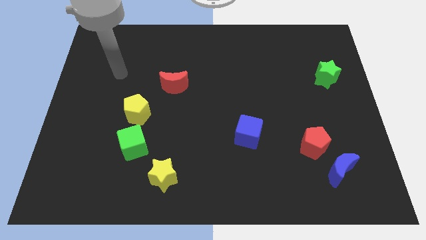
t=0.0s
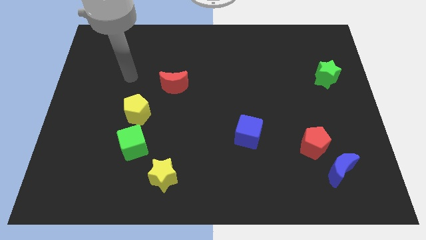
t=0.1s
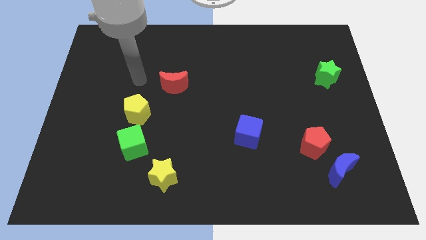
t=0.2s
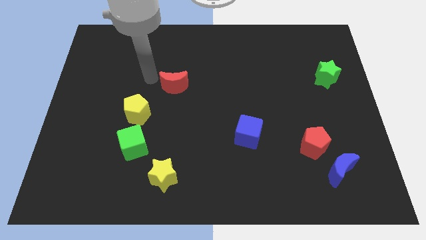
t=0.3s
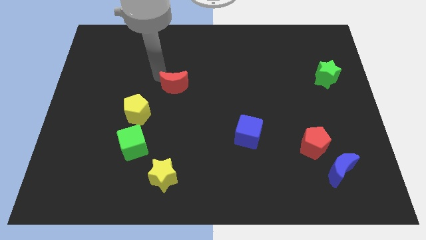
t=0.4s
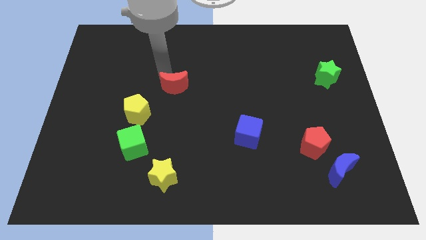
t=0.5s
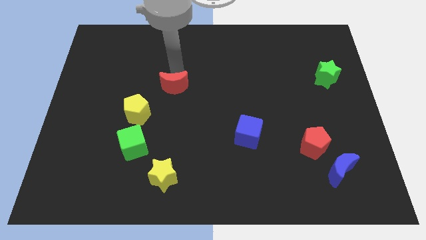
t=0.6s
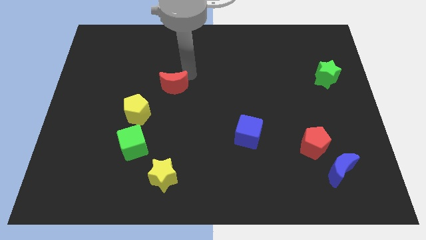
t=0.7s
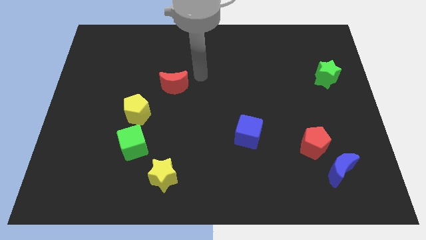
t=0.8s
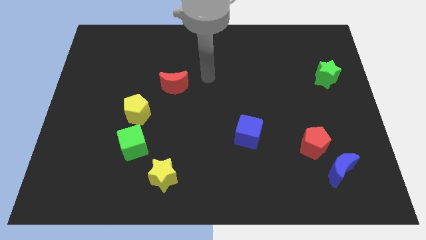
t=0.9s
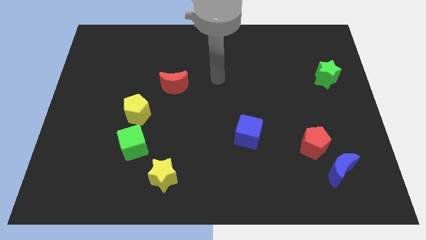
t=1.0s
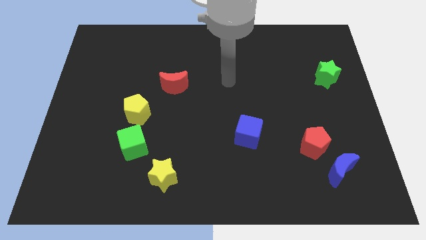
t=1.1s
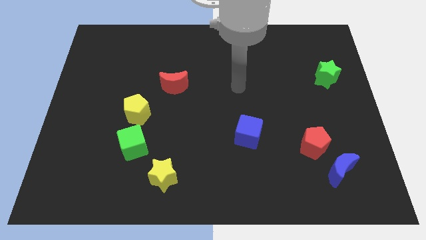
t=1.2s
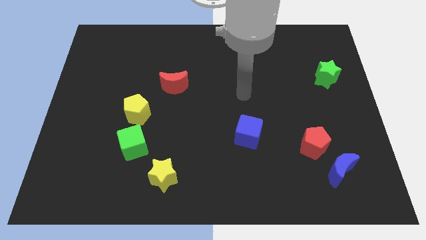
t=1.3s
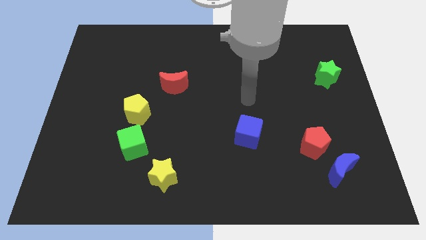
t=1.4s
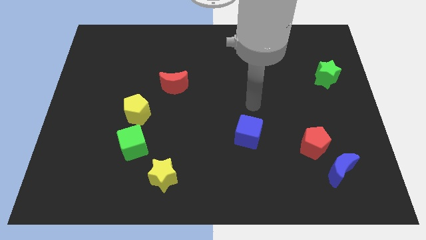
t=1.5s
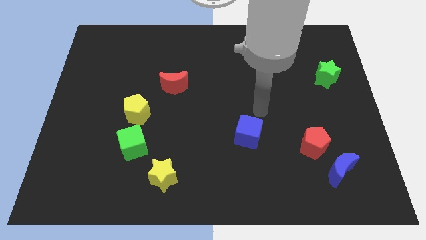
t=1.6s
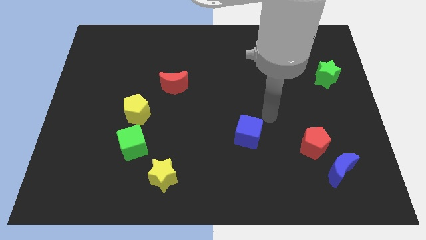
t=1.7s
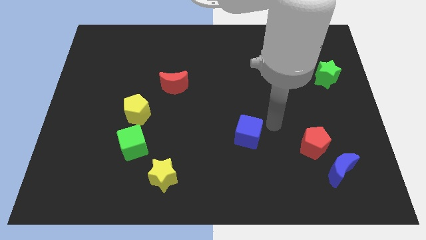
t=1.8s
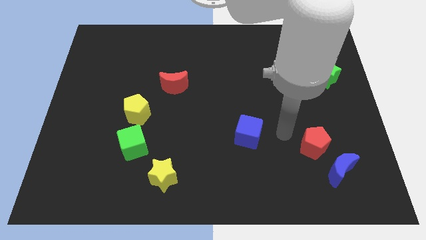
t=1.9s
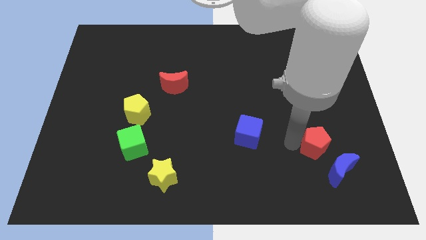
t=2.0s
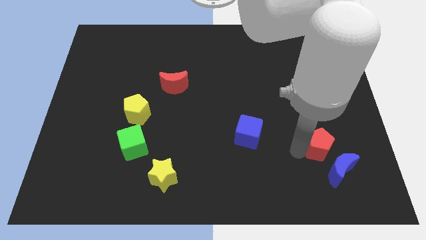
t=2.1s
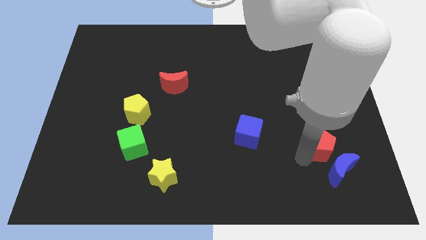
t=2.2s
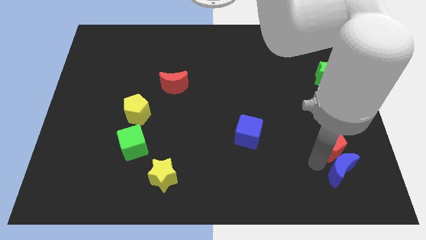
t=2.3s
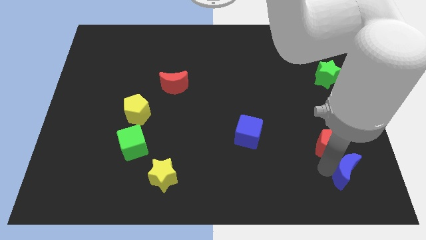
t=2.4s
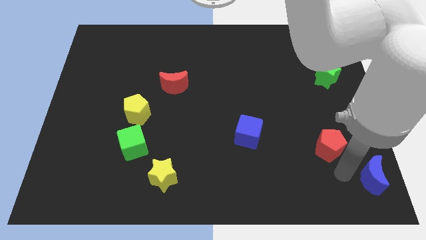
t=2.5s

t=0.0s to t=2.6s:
separate the red pentagon from the blue moon

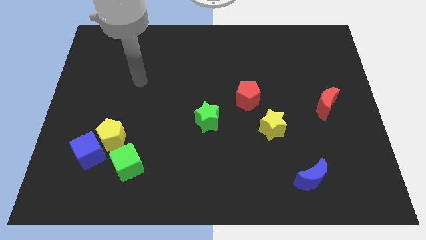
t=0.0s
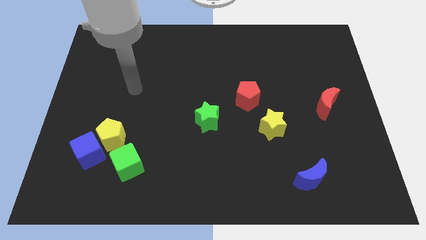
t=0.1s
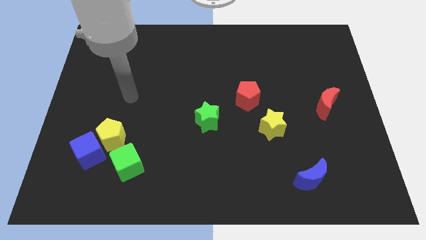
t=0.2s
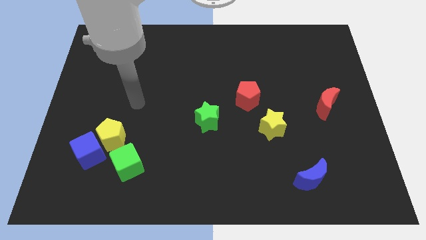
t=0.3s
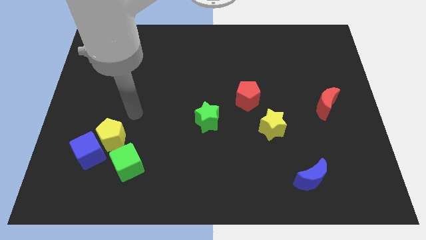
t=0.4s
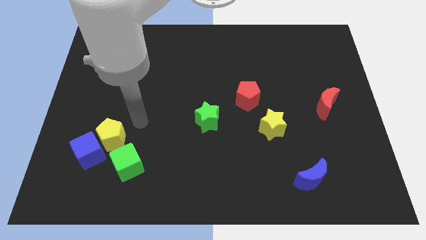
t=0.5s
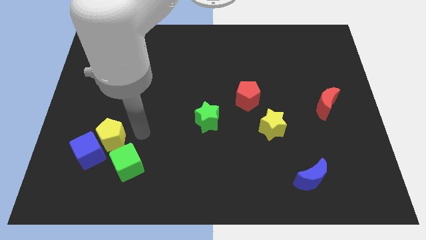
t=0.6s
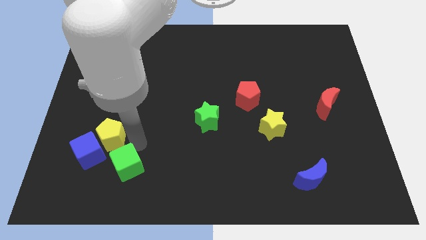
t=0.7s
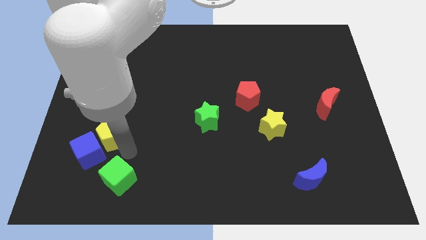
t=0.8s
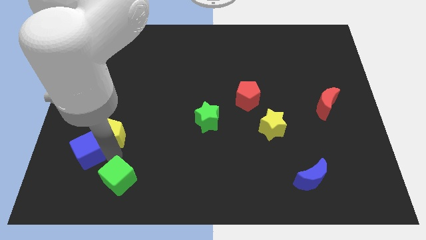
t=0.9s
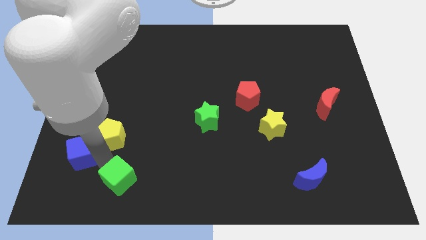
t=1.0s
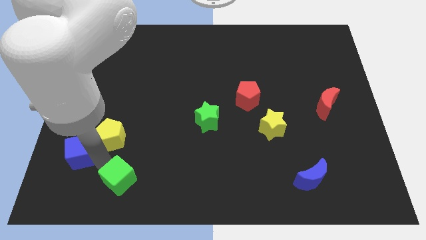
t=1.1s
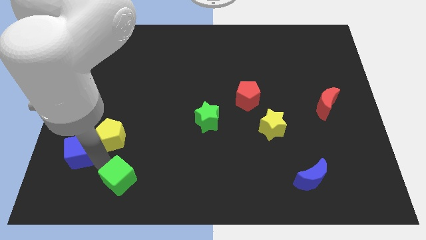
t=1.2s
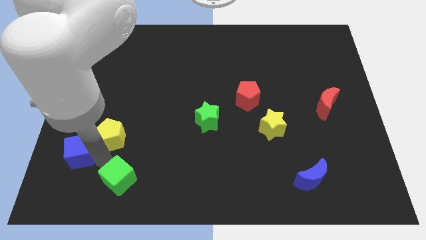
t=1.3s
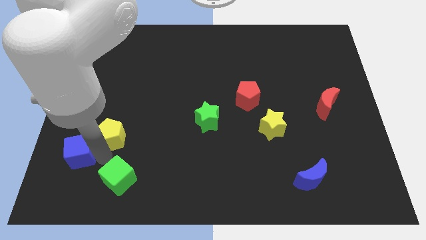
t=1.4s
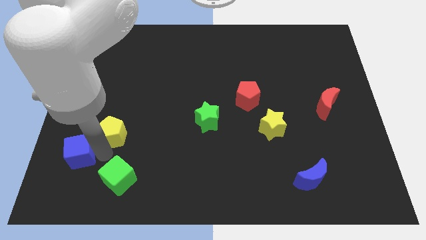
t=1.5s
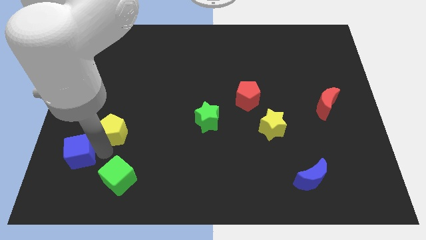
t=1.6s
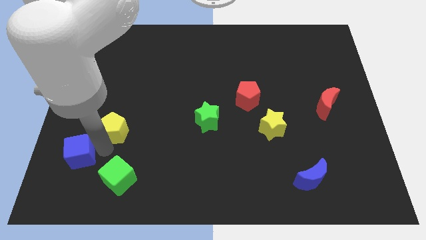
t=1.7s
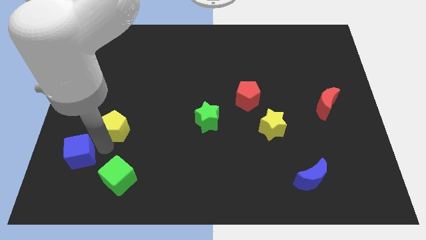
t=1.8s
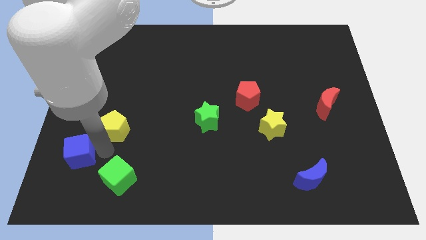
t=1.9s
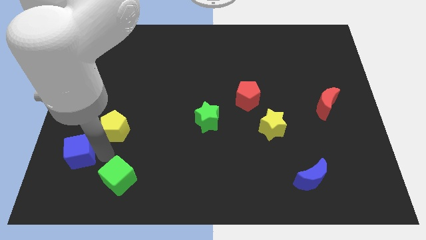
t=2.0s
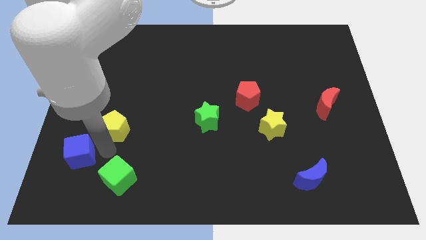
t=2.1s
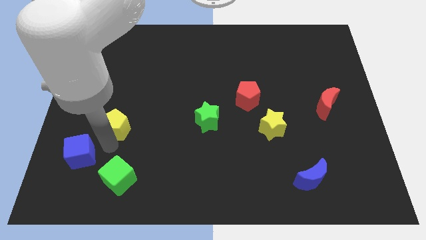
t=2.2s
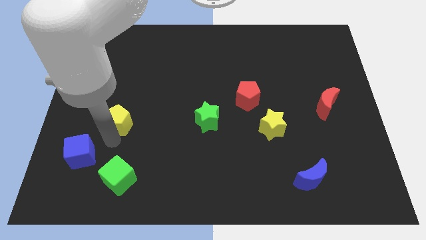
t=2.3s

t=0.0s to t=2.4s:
move the yellow pentagon away from the blue cube and green cube

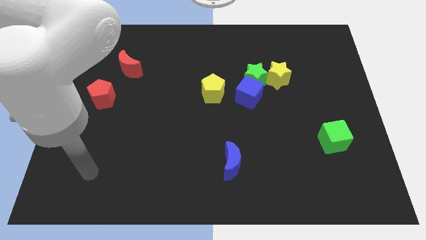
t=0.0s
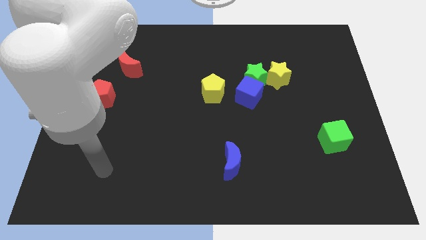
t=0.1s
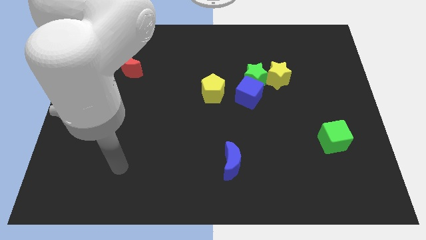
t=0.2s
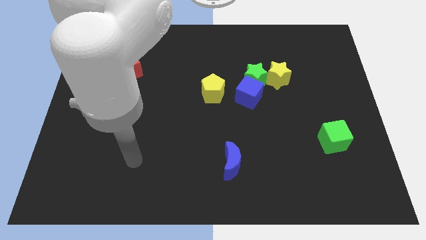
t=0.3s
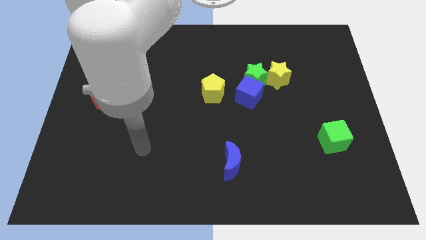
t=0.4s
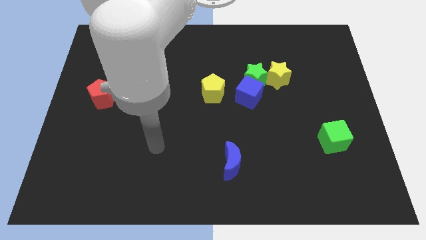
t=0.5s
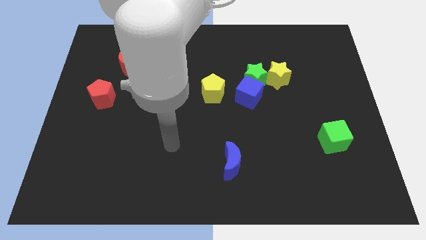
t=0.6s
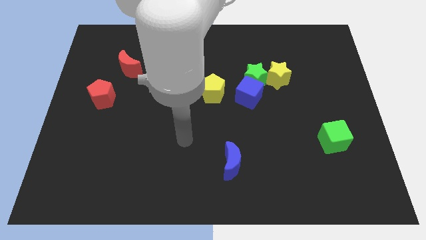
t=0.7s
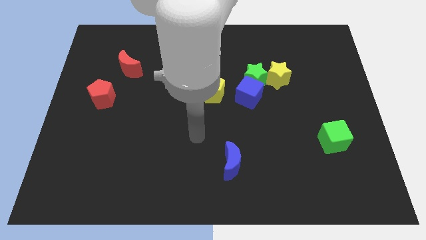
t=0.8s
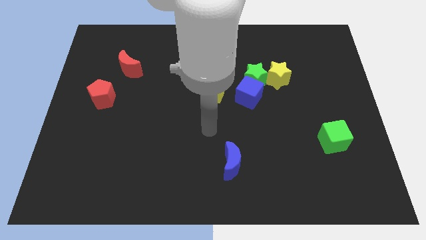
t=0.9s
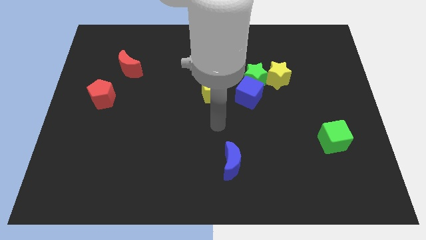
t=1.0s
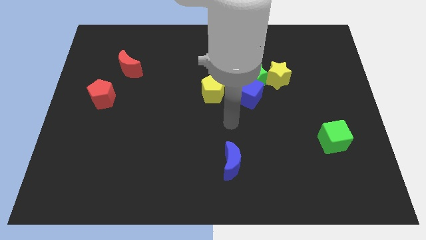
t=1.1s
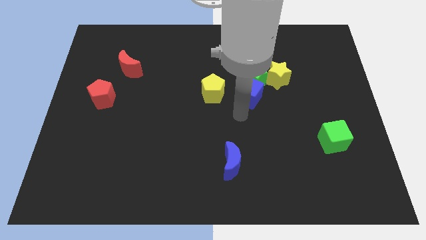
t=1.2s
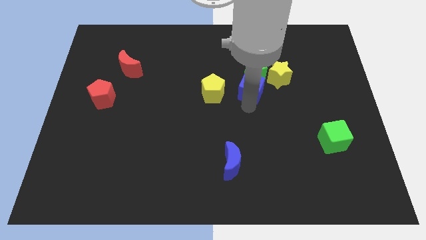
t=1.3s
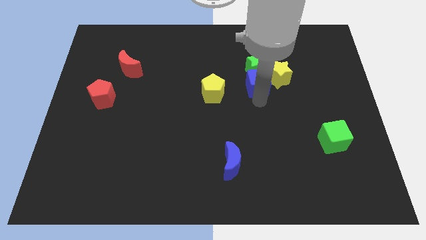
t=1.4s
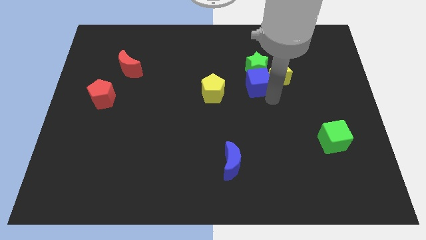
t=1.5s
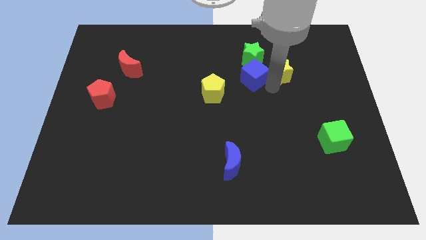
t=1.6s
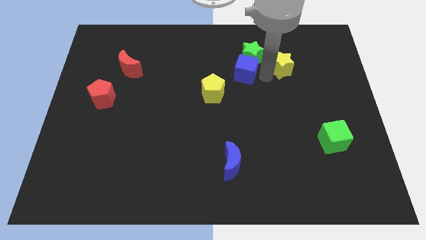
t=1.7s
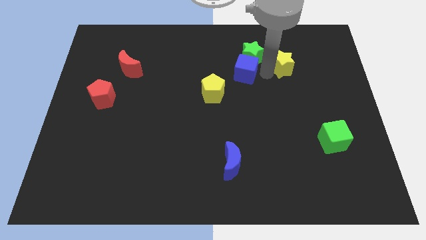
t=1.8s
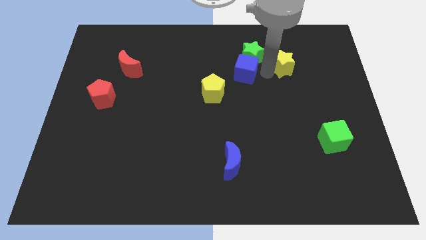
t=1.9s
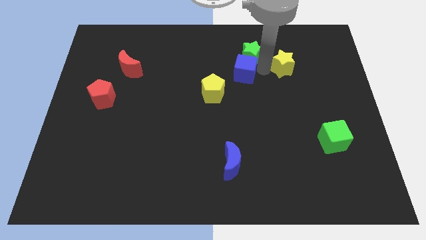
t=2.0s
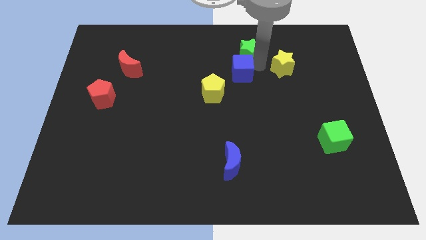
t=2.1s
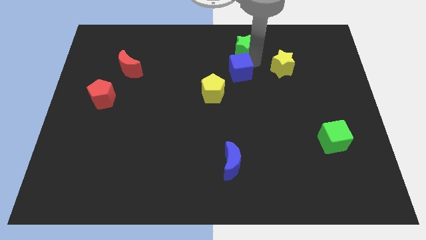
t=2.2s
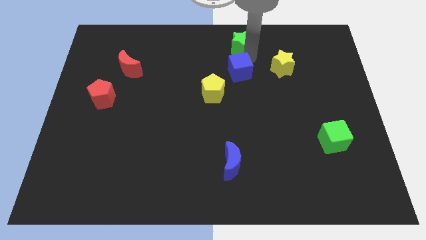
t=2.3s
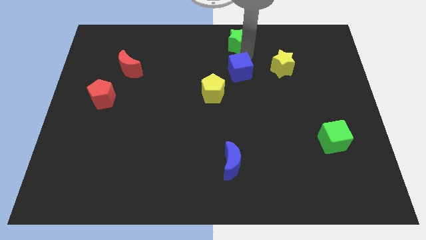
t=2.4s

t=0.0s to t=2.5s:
separate the green star from the blue cube and yellow star

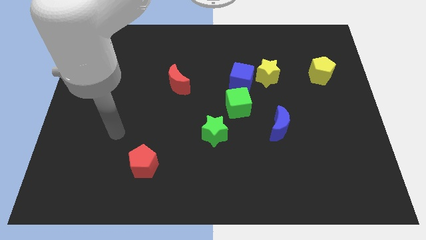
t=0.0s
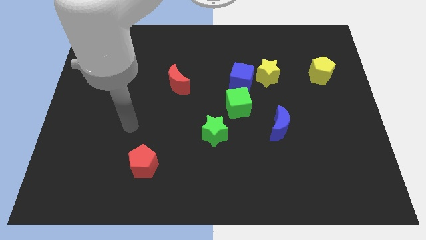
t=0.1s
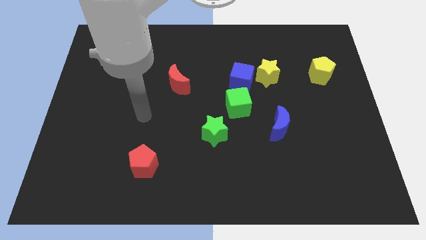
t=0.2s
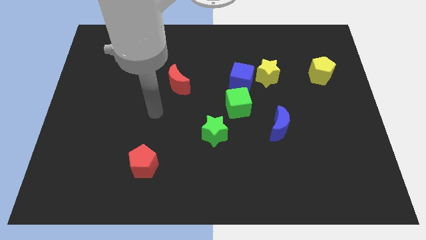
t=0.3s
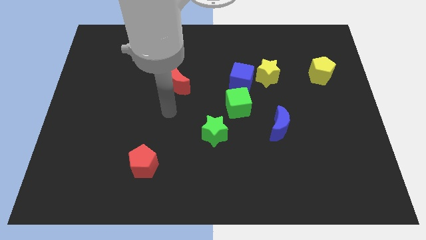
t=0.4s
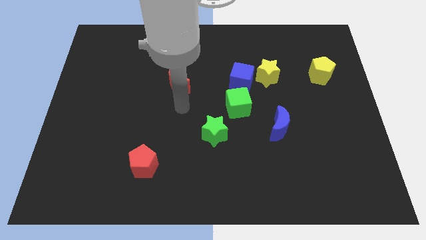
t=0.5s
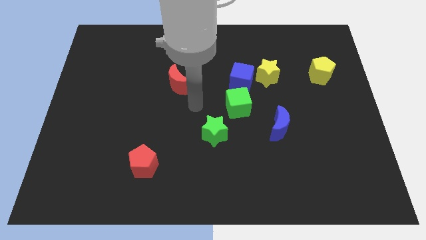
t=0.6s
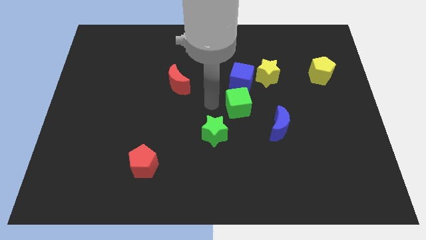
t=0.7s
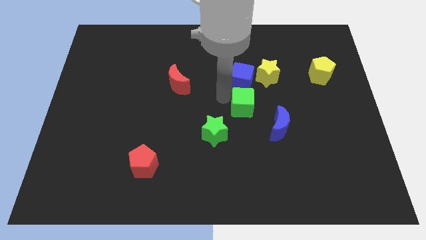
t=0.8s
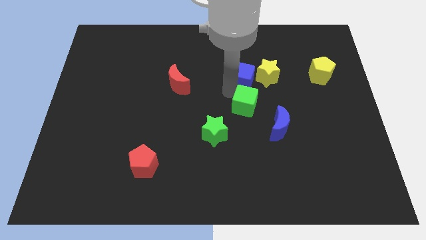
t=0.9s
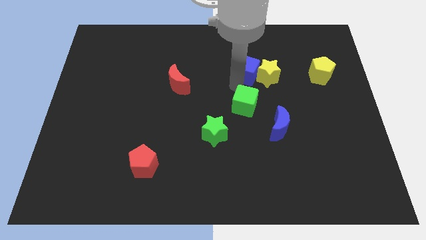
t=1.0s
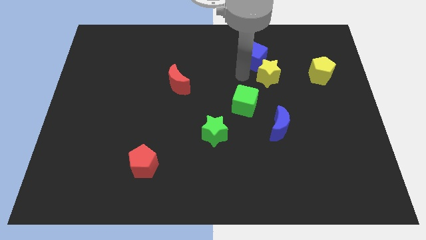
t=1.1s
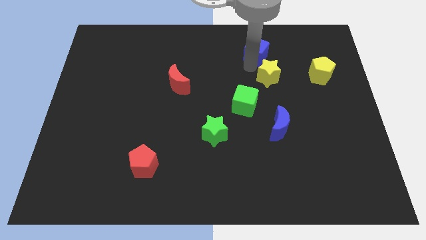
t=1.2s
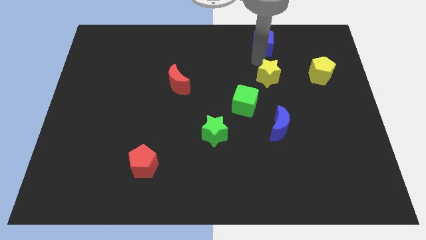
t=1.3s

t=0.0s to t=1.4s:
separate the yellow star from the blue cube

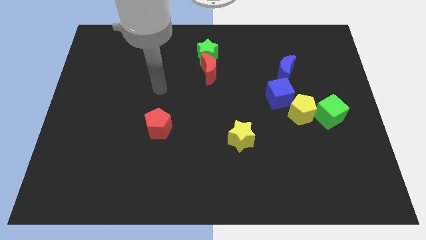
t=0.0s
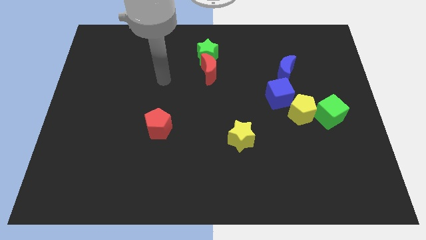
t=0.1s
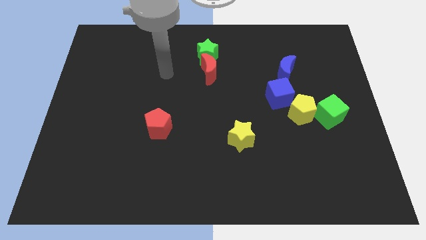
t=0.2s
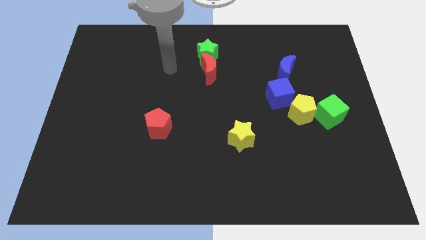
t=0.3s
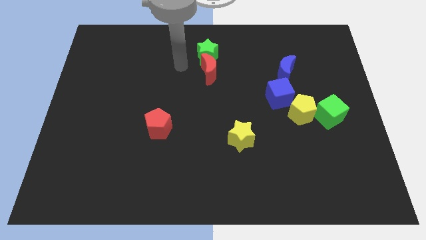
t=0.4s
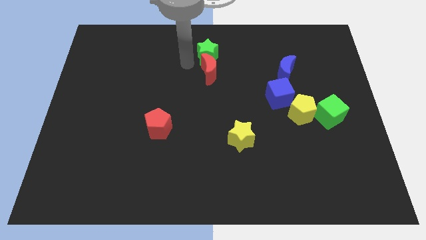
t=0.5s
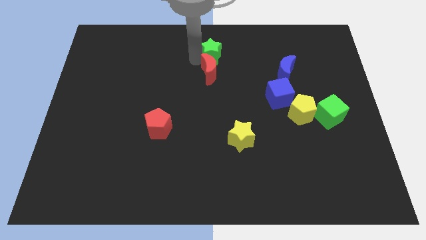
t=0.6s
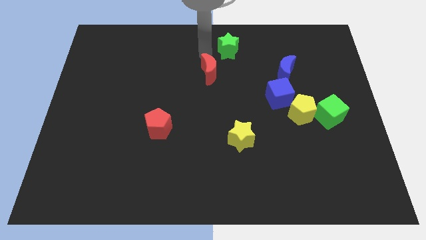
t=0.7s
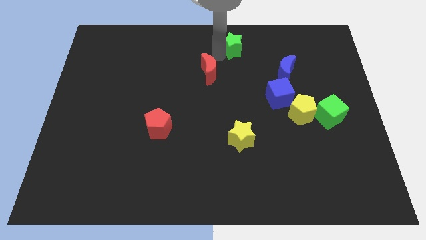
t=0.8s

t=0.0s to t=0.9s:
separate the red moon from the green star
